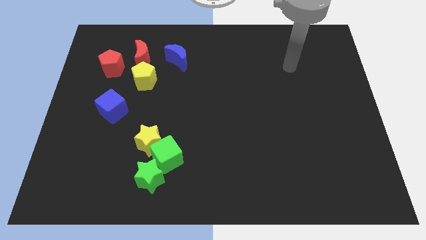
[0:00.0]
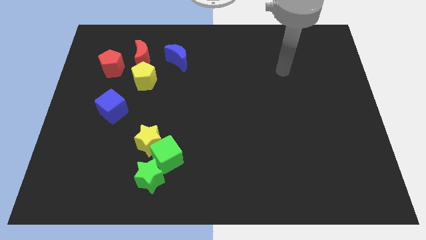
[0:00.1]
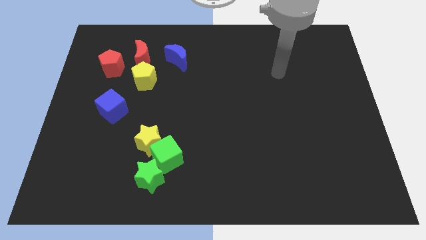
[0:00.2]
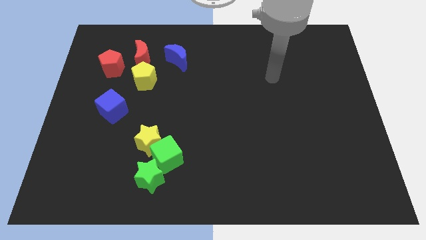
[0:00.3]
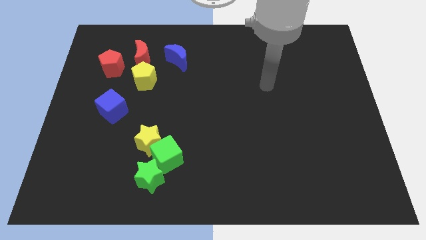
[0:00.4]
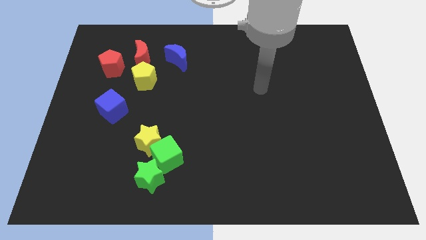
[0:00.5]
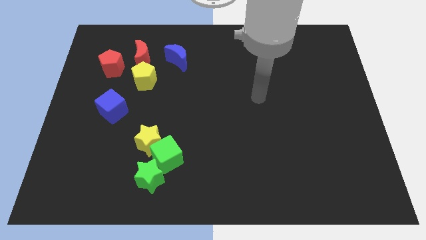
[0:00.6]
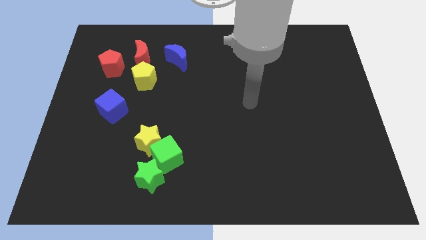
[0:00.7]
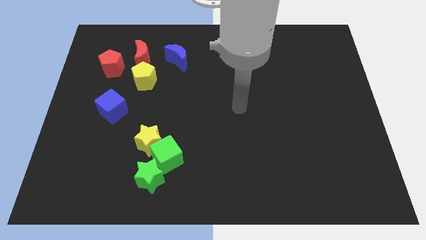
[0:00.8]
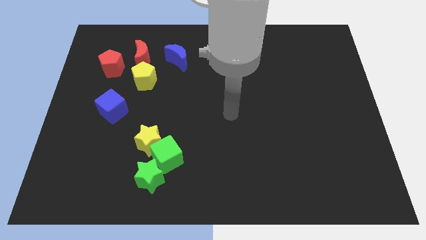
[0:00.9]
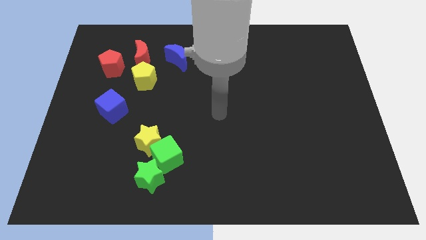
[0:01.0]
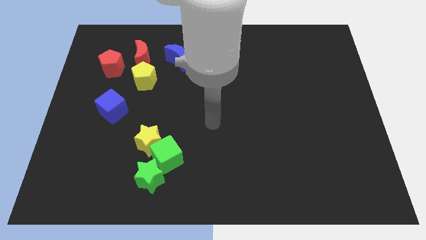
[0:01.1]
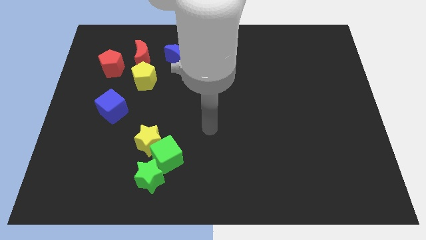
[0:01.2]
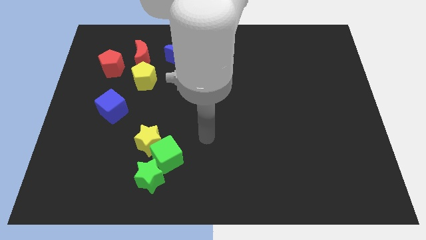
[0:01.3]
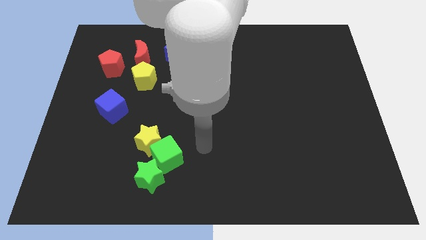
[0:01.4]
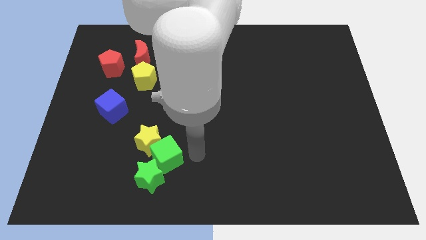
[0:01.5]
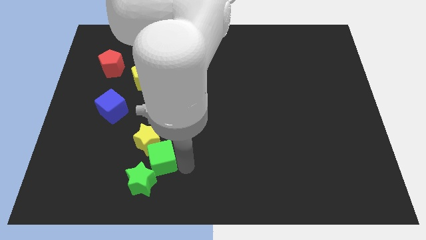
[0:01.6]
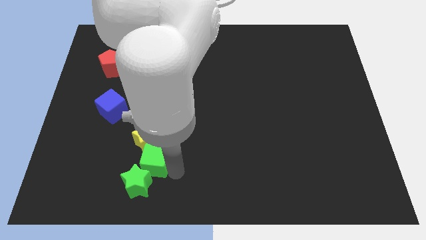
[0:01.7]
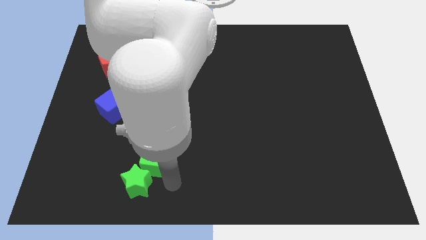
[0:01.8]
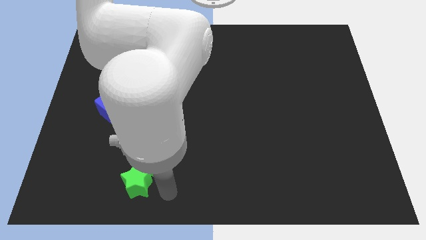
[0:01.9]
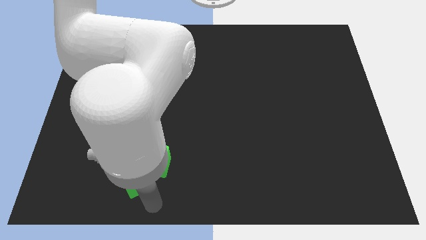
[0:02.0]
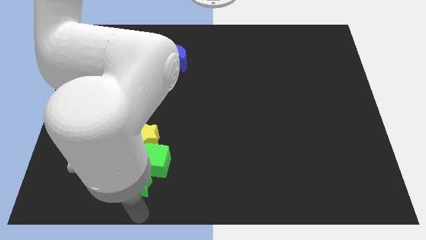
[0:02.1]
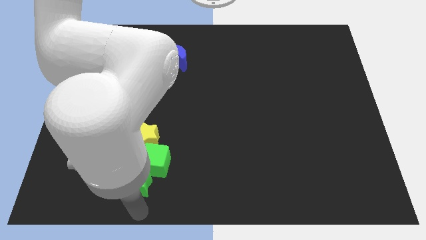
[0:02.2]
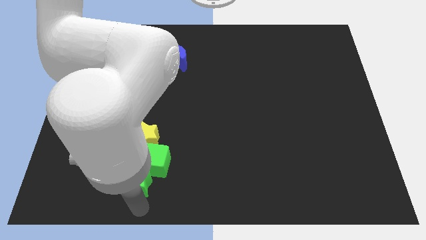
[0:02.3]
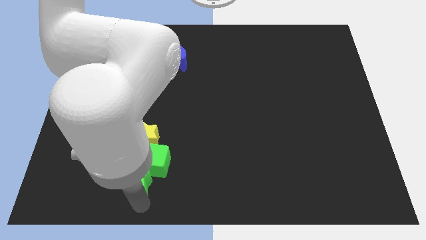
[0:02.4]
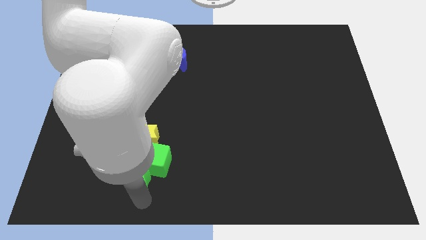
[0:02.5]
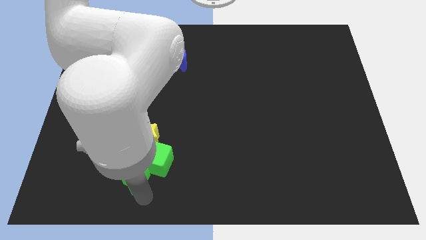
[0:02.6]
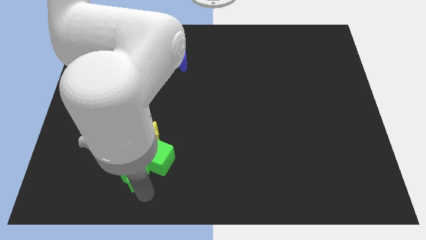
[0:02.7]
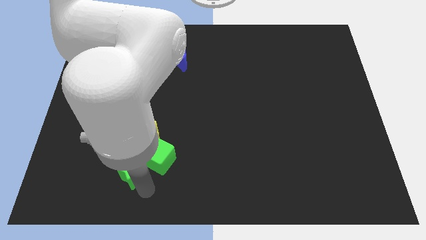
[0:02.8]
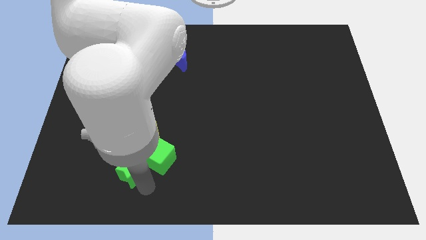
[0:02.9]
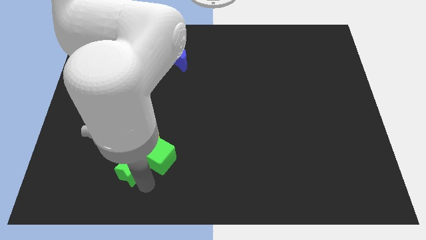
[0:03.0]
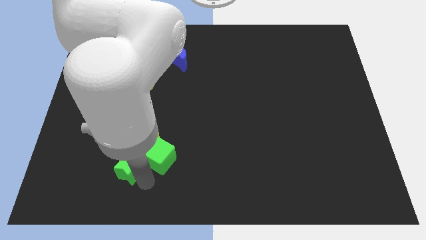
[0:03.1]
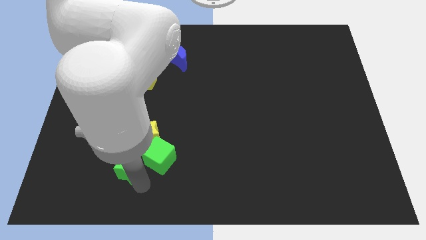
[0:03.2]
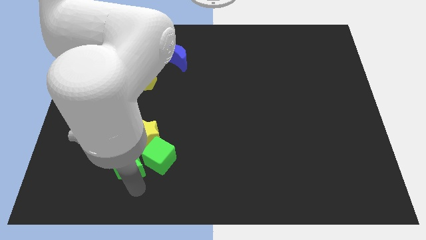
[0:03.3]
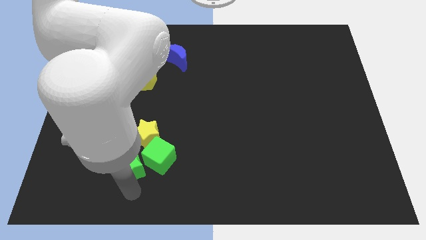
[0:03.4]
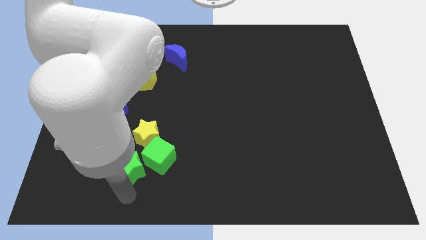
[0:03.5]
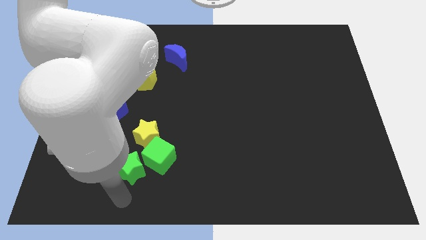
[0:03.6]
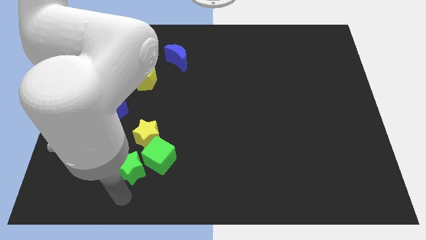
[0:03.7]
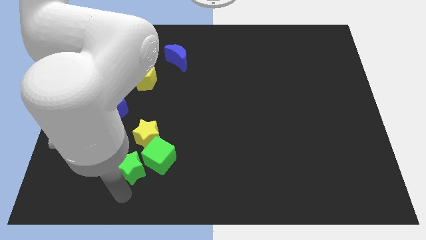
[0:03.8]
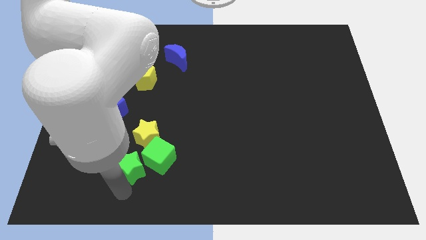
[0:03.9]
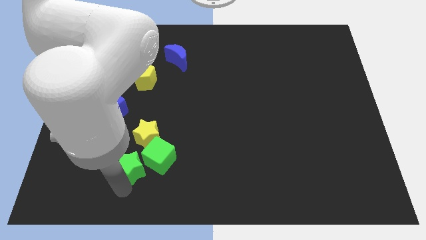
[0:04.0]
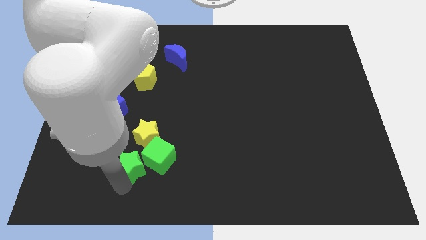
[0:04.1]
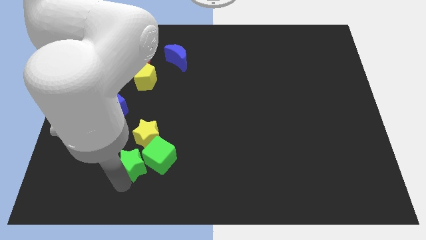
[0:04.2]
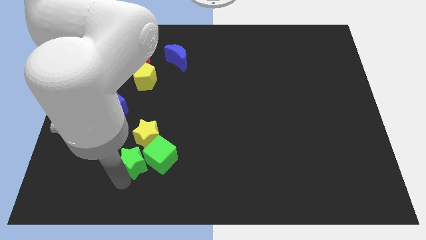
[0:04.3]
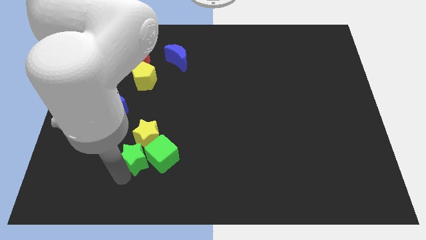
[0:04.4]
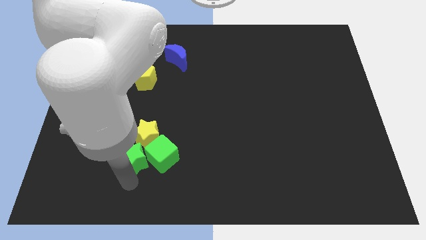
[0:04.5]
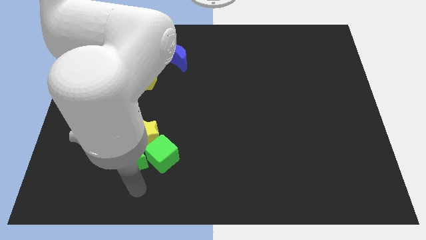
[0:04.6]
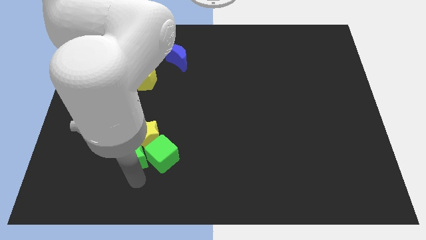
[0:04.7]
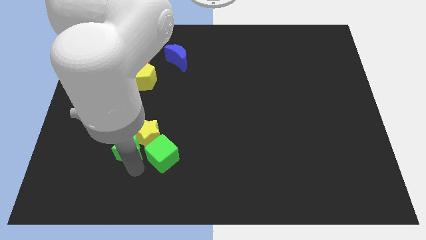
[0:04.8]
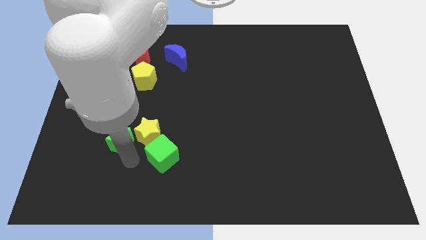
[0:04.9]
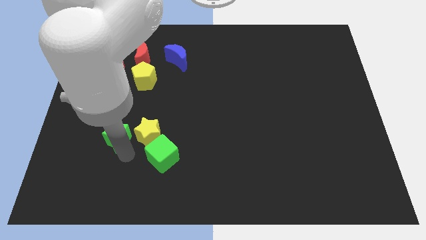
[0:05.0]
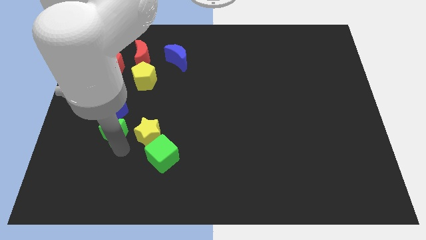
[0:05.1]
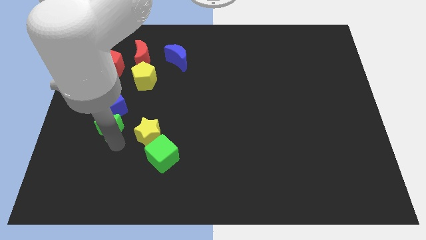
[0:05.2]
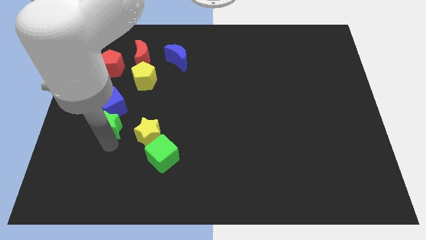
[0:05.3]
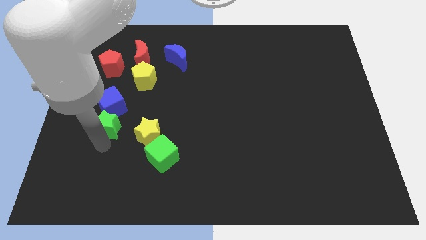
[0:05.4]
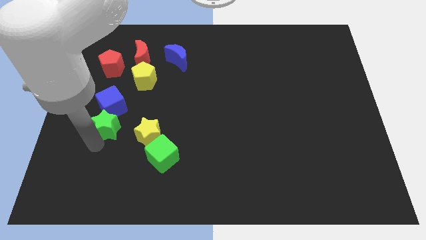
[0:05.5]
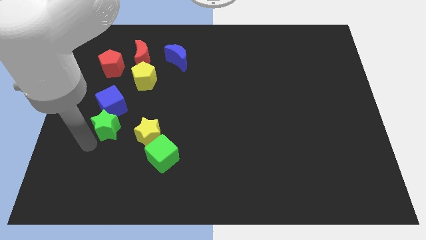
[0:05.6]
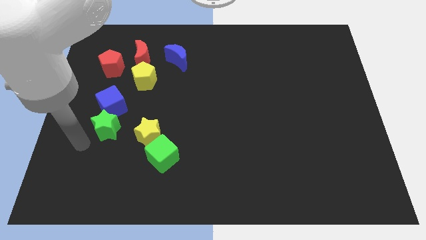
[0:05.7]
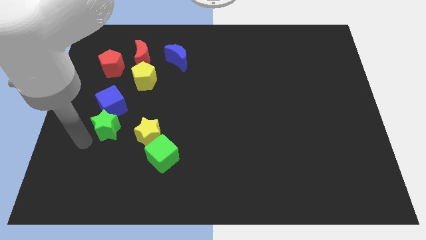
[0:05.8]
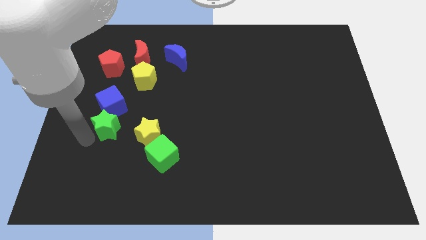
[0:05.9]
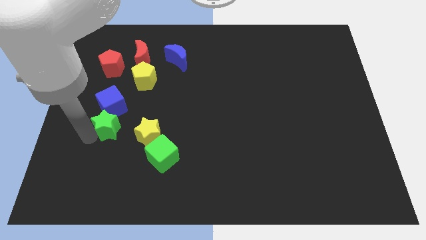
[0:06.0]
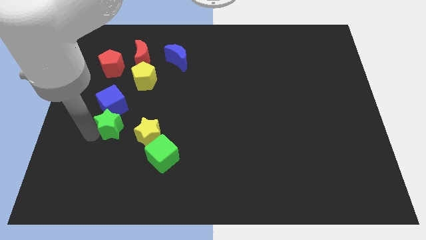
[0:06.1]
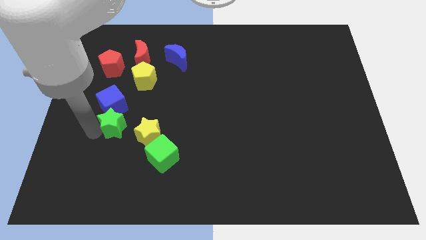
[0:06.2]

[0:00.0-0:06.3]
move the green star to the top left of the yellow star

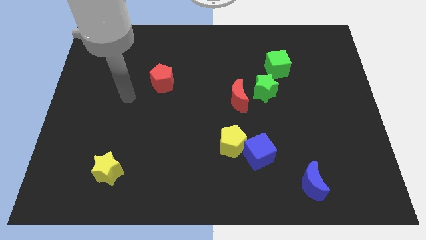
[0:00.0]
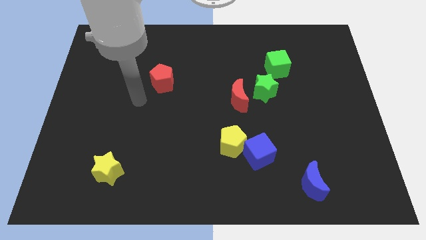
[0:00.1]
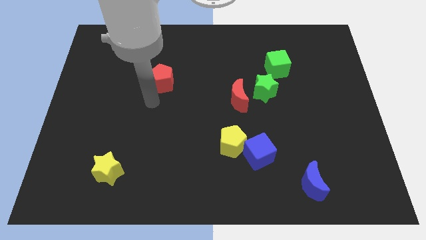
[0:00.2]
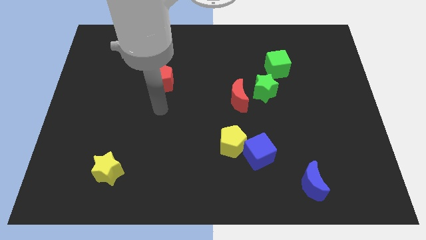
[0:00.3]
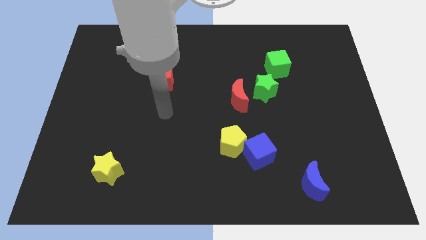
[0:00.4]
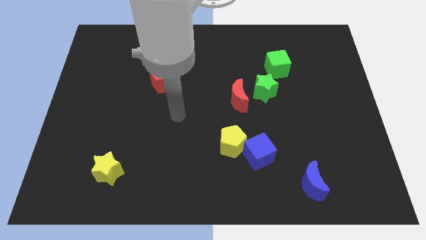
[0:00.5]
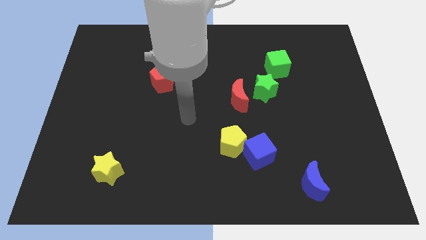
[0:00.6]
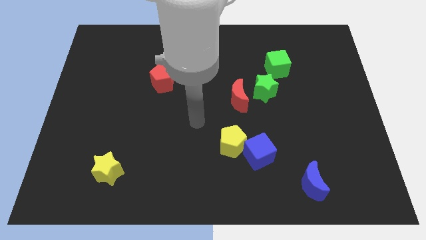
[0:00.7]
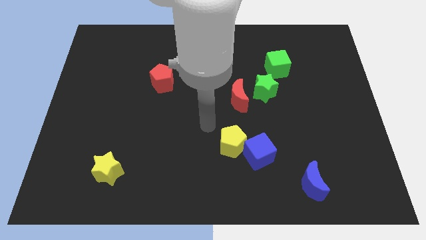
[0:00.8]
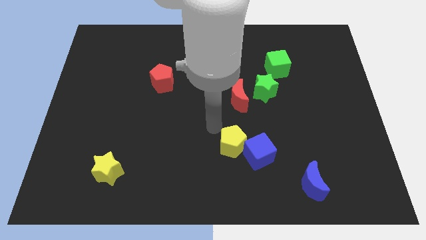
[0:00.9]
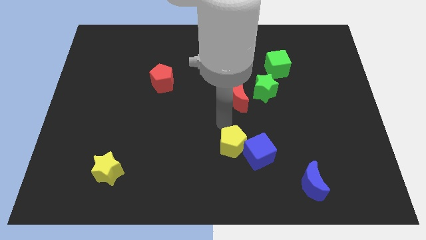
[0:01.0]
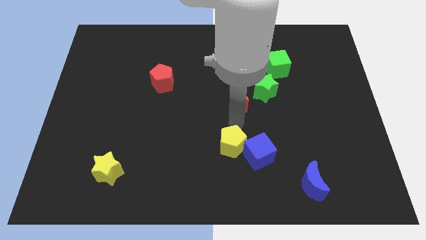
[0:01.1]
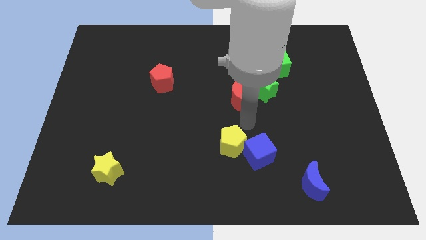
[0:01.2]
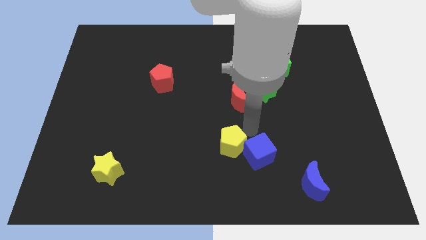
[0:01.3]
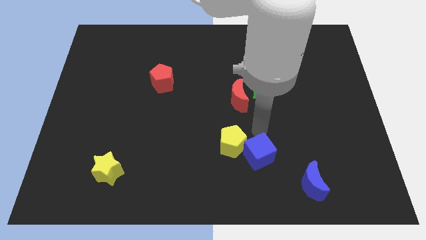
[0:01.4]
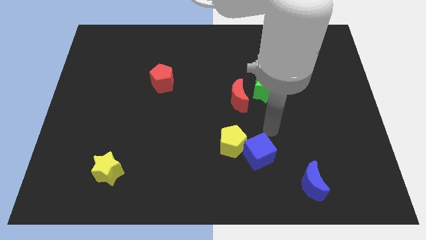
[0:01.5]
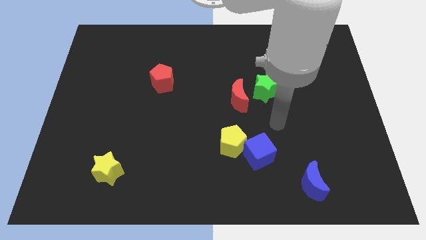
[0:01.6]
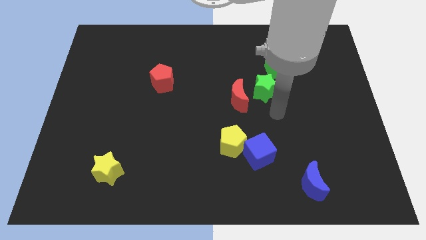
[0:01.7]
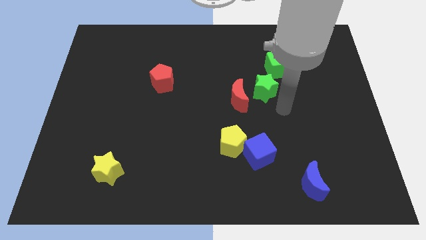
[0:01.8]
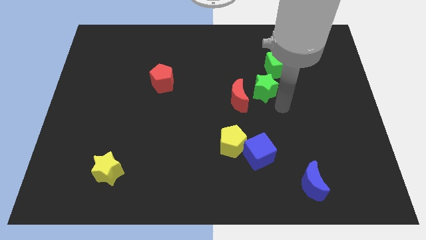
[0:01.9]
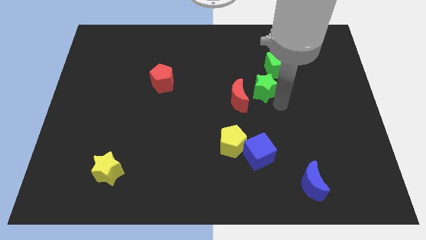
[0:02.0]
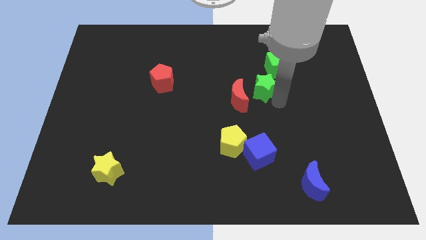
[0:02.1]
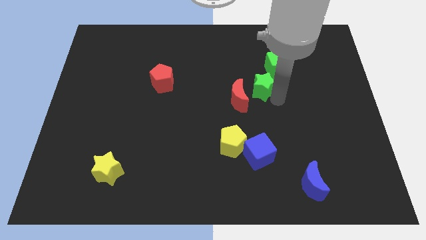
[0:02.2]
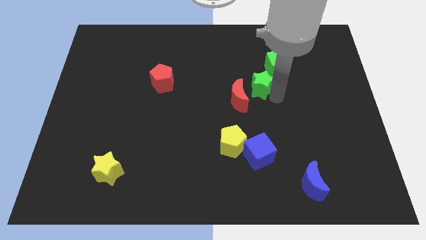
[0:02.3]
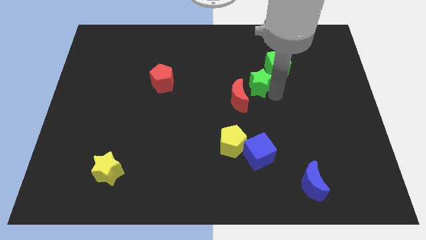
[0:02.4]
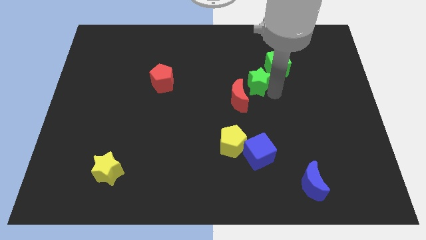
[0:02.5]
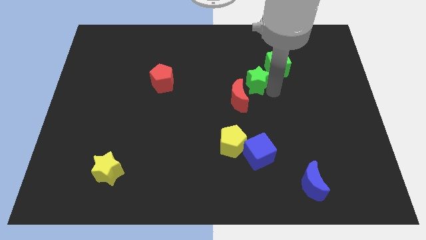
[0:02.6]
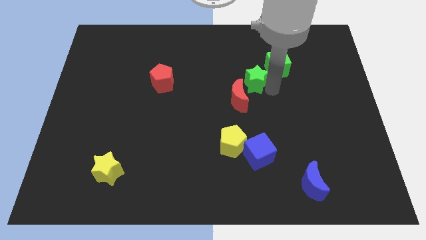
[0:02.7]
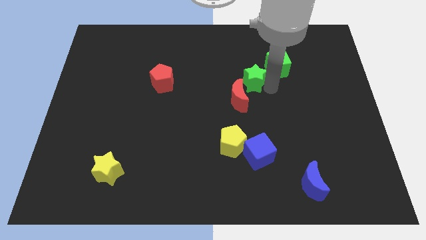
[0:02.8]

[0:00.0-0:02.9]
move the green star just left of the green cube
